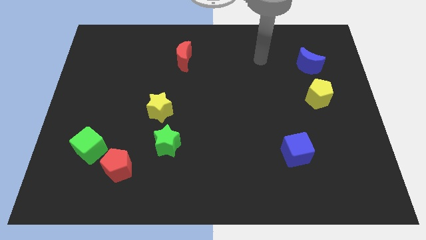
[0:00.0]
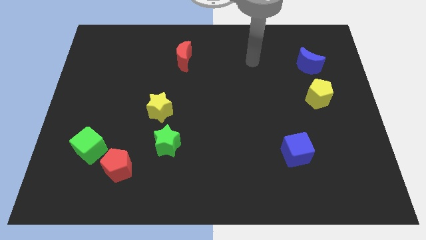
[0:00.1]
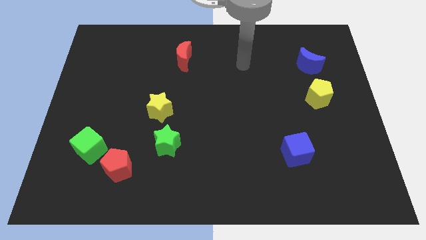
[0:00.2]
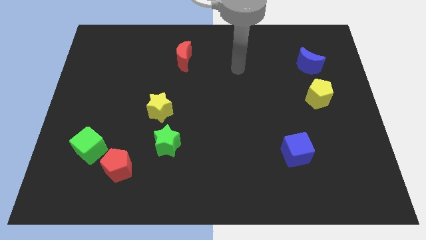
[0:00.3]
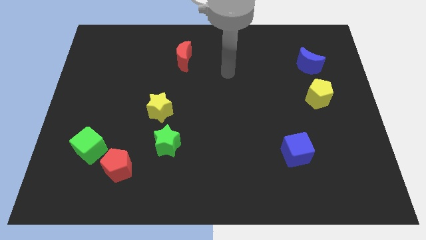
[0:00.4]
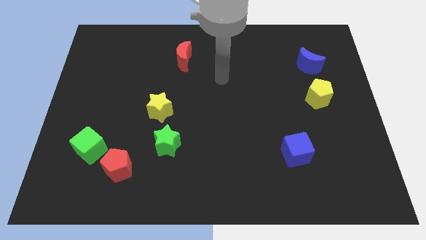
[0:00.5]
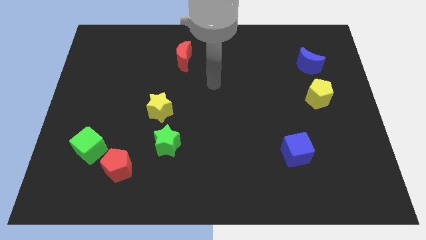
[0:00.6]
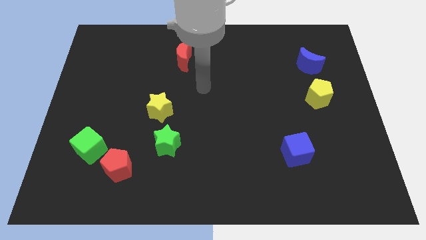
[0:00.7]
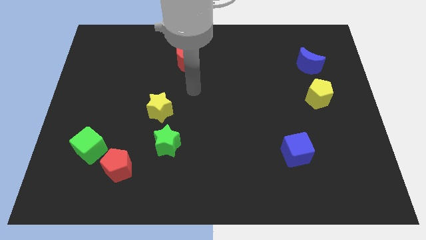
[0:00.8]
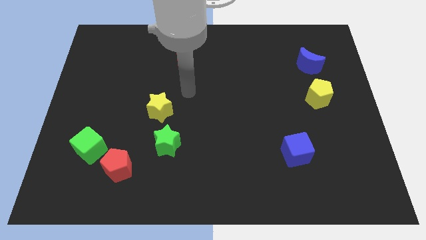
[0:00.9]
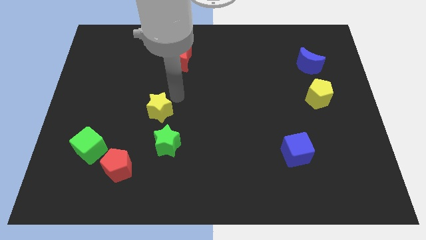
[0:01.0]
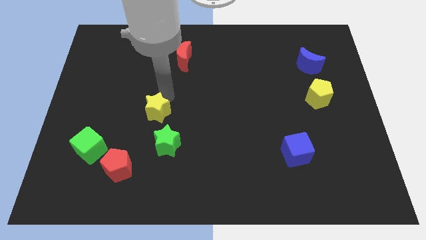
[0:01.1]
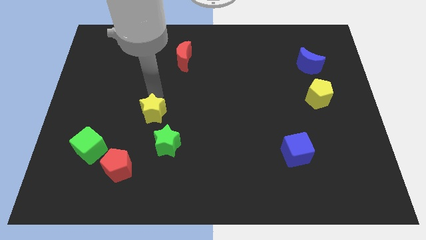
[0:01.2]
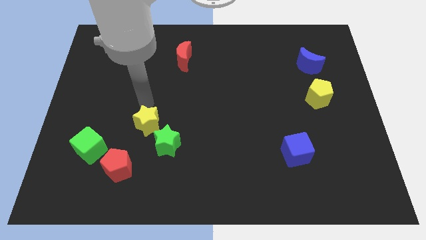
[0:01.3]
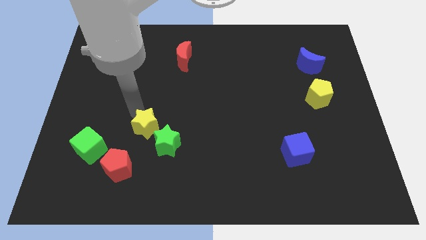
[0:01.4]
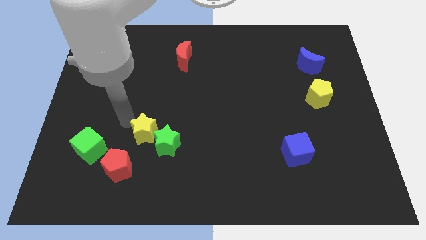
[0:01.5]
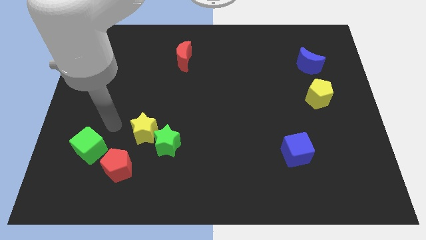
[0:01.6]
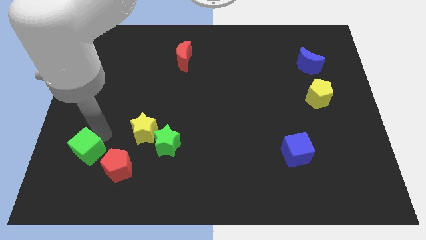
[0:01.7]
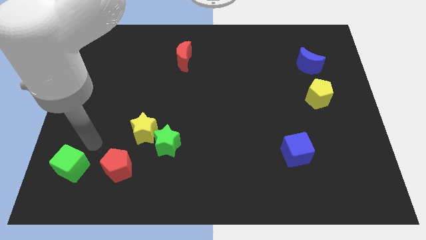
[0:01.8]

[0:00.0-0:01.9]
separate the red pentagon from the green cube

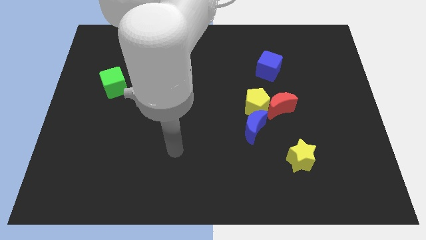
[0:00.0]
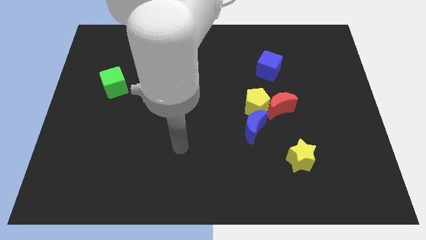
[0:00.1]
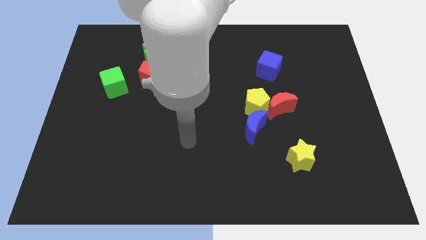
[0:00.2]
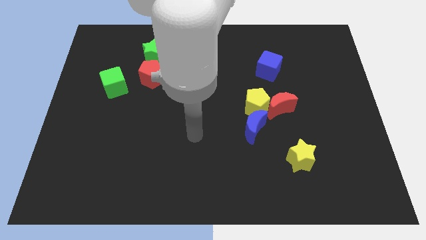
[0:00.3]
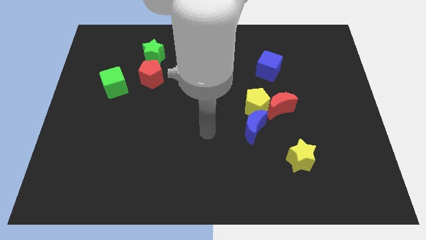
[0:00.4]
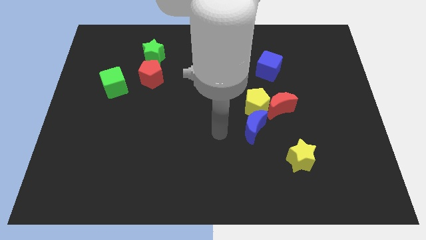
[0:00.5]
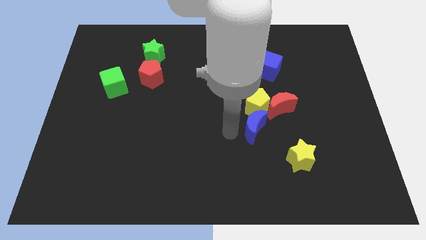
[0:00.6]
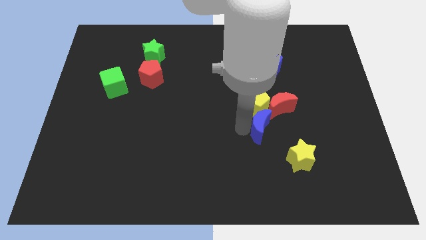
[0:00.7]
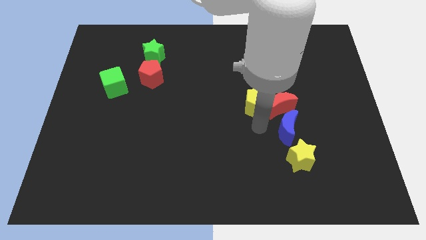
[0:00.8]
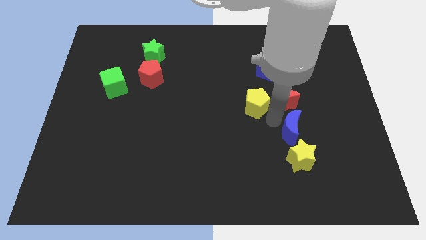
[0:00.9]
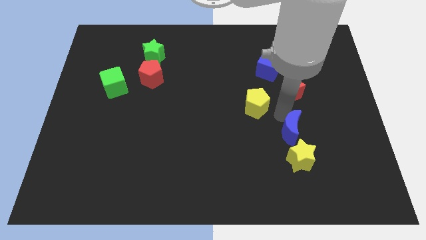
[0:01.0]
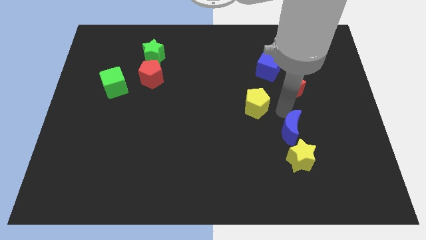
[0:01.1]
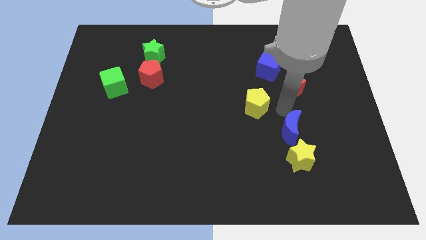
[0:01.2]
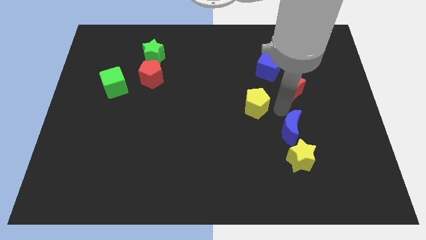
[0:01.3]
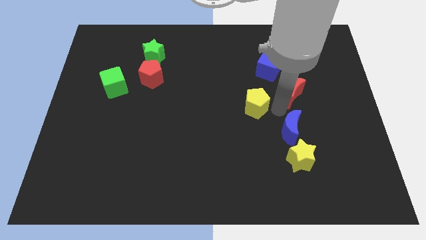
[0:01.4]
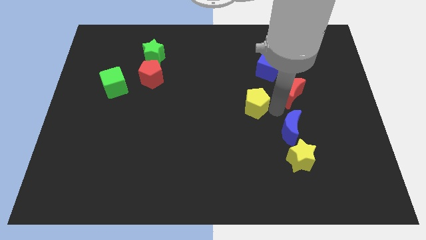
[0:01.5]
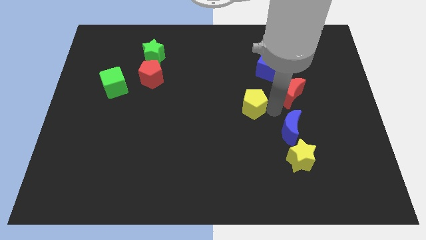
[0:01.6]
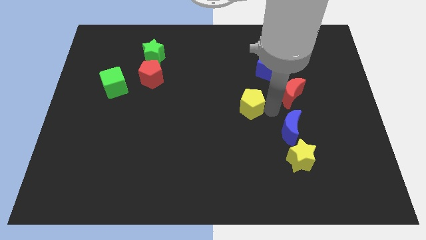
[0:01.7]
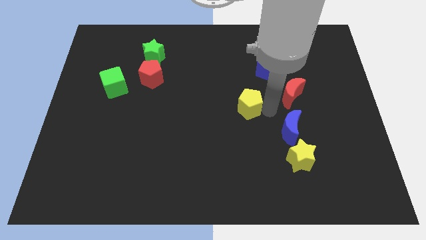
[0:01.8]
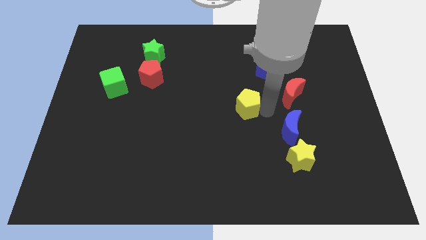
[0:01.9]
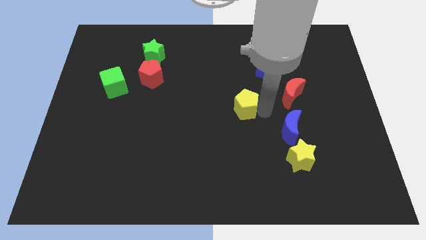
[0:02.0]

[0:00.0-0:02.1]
separate the yellow pentagon from the red moon and blue moon

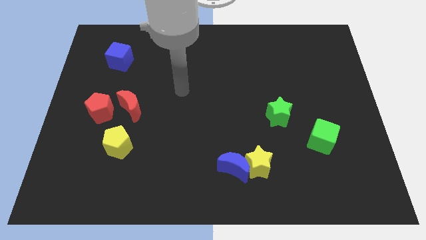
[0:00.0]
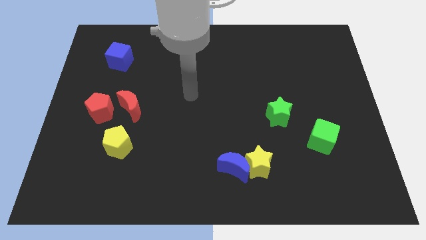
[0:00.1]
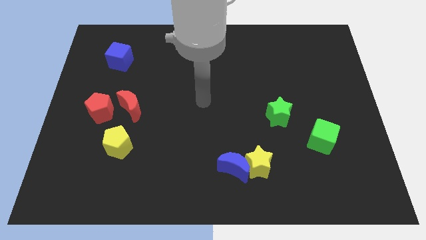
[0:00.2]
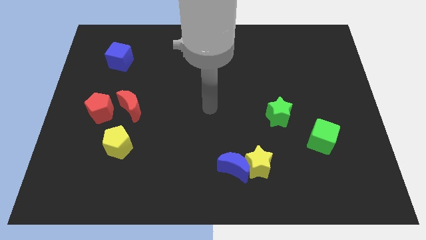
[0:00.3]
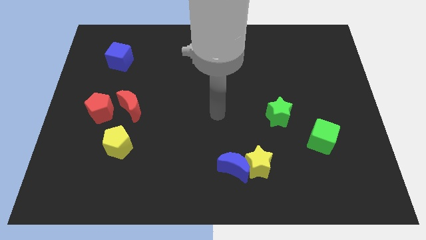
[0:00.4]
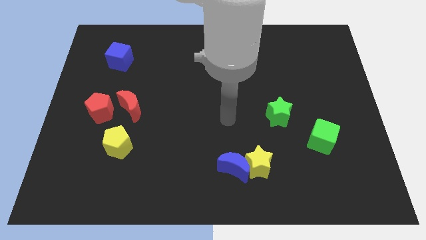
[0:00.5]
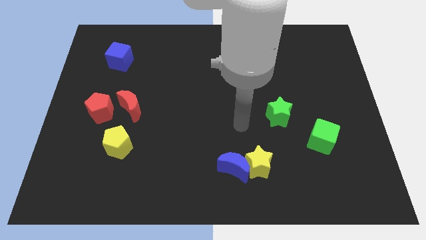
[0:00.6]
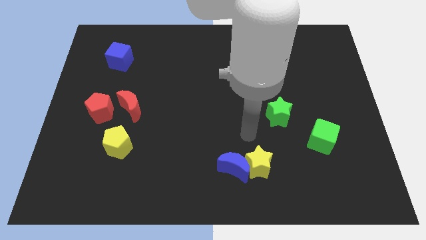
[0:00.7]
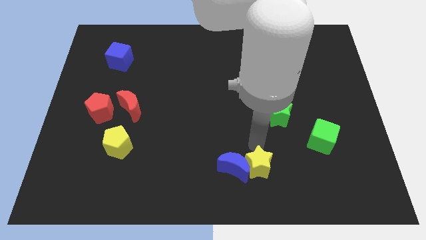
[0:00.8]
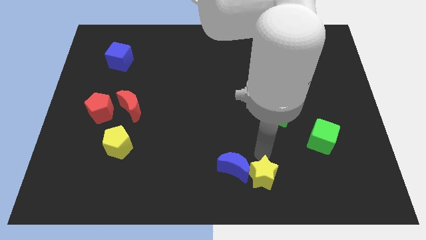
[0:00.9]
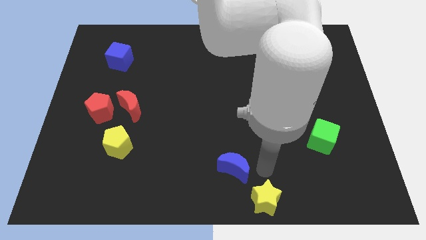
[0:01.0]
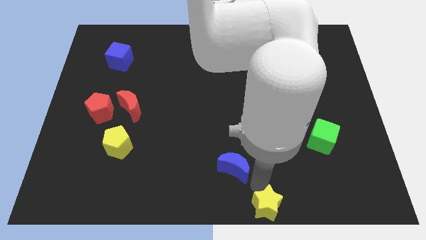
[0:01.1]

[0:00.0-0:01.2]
pull the blue moon apart from the yellow star

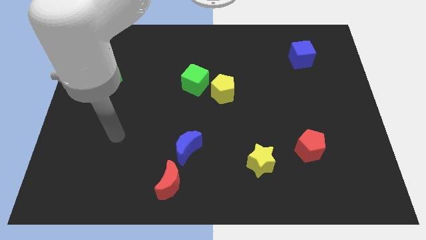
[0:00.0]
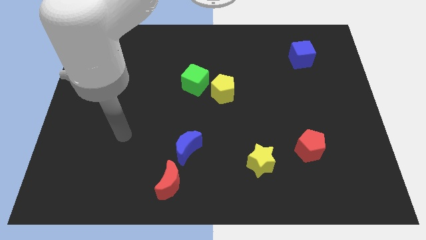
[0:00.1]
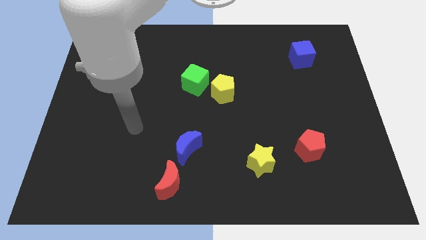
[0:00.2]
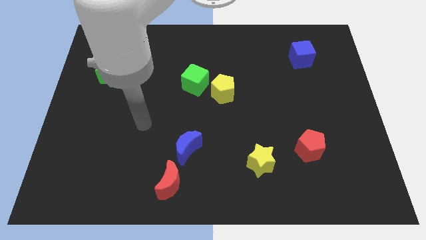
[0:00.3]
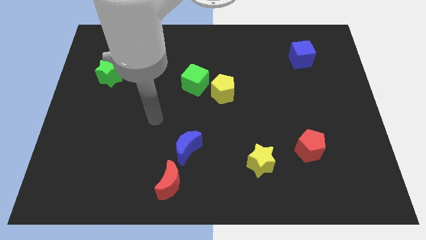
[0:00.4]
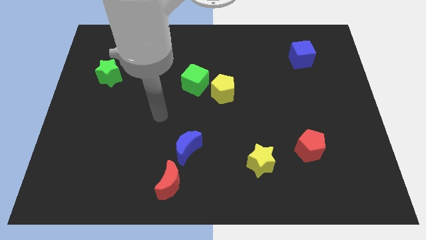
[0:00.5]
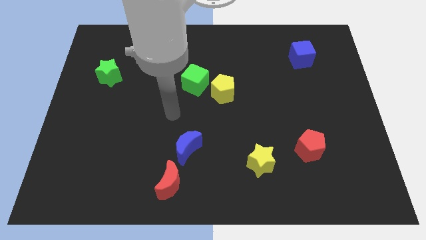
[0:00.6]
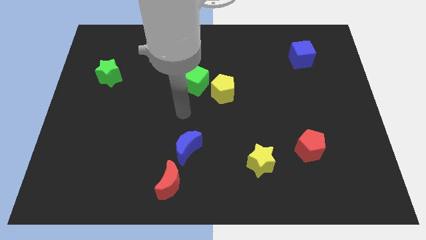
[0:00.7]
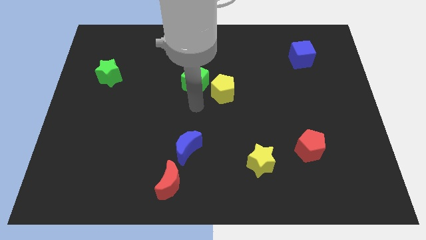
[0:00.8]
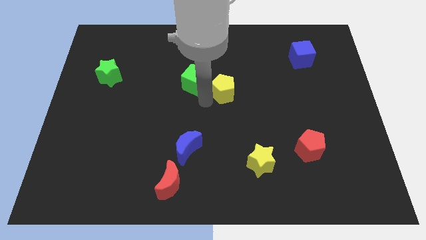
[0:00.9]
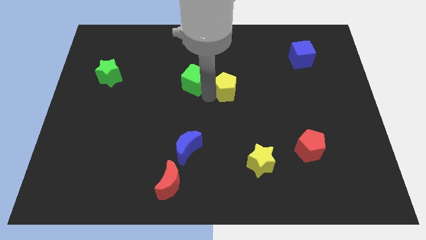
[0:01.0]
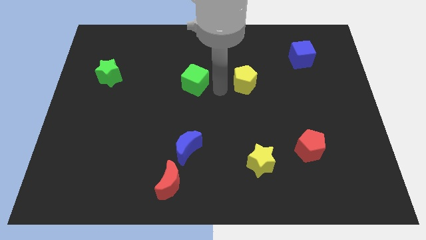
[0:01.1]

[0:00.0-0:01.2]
pull the green cube apart from the yellow pentagon

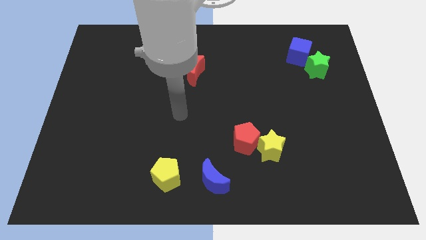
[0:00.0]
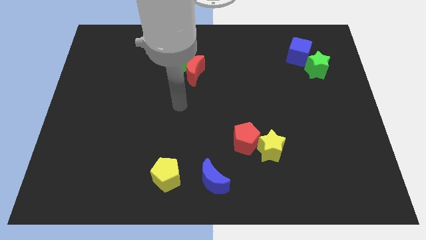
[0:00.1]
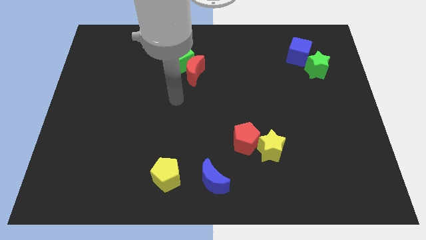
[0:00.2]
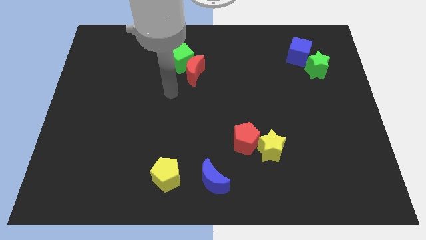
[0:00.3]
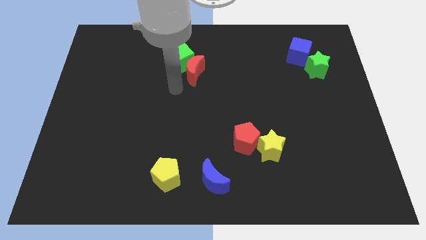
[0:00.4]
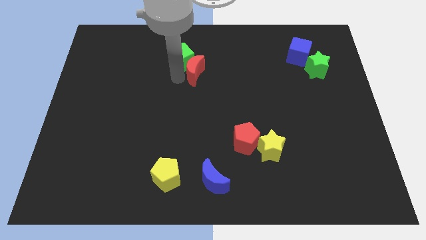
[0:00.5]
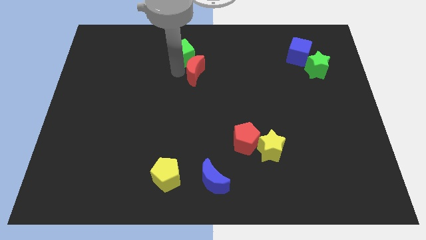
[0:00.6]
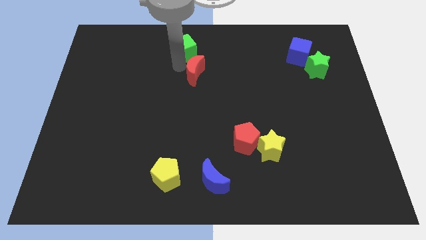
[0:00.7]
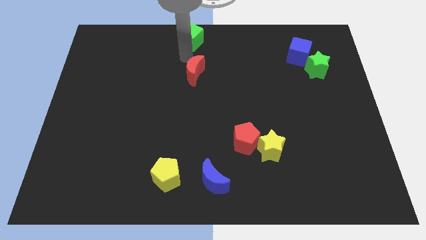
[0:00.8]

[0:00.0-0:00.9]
move the red moon away from the green cube

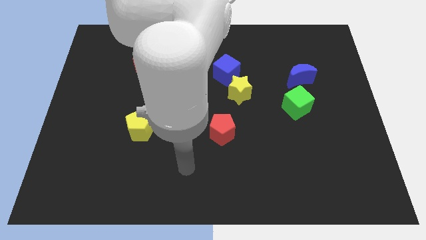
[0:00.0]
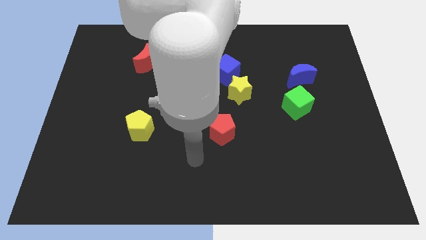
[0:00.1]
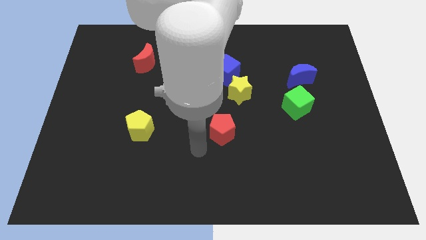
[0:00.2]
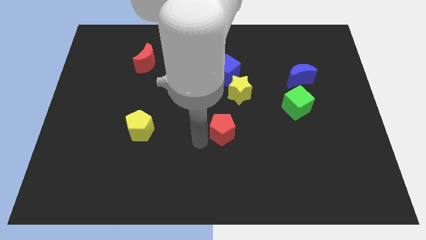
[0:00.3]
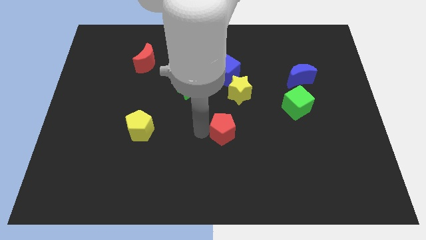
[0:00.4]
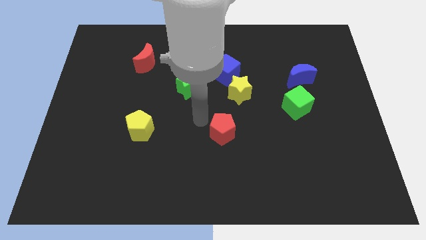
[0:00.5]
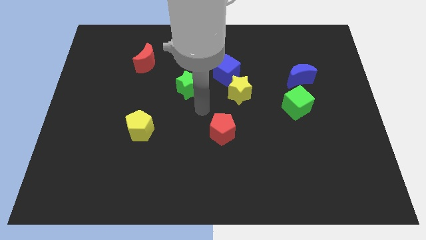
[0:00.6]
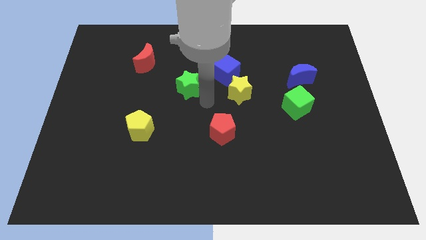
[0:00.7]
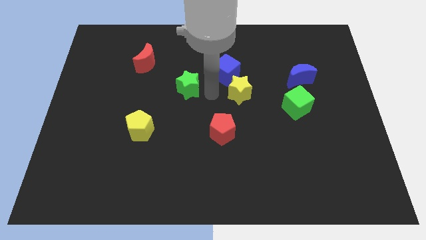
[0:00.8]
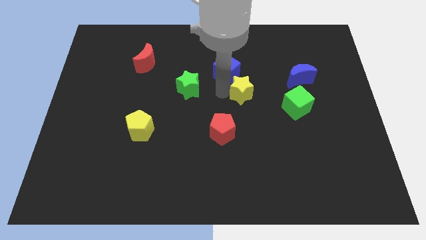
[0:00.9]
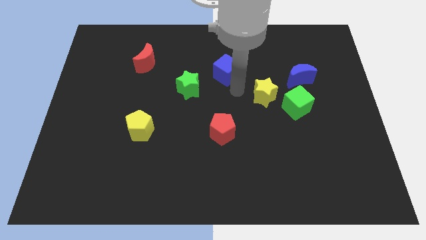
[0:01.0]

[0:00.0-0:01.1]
separate the blue cube from the yellow star

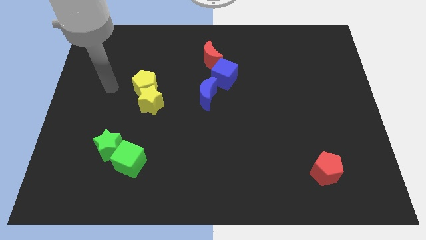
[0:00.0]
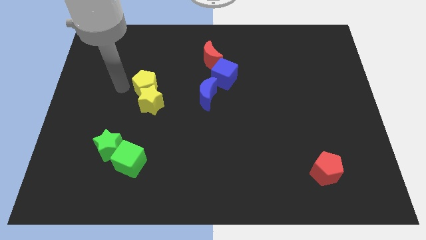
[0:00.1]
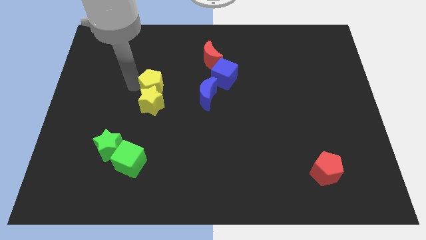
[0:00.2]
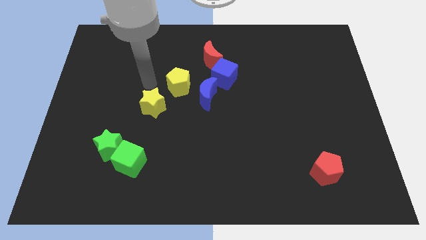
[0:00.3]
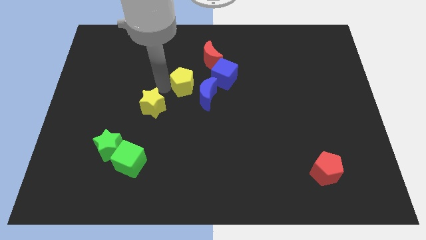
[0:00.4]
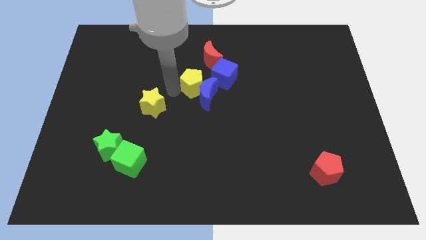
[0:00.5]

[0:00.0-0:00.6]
separate the yellow star from the yellow pentagon

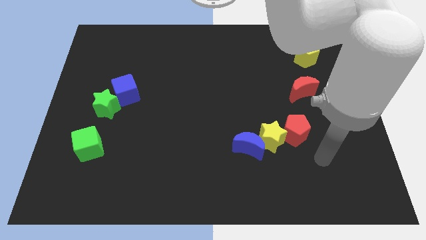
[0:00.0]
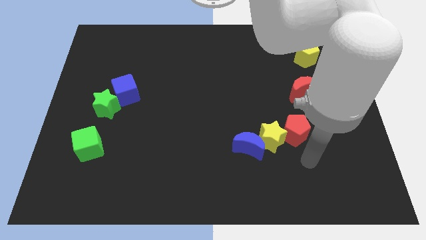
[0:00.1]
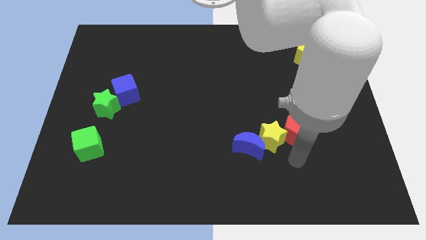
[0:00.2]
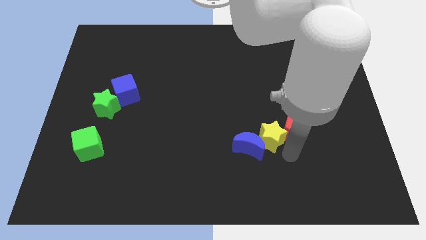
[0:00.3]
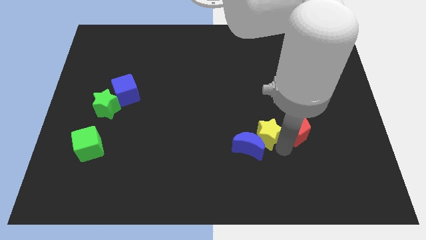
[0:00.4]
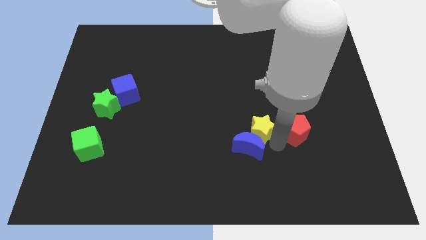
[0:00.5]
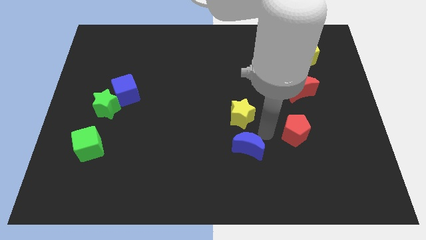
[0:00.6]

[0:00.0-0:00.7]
pull the red pentagon apart from the yellow star
